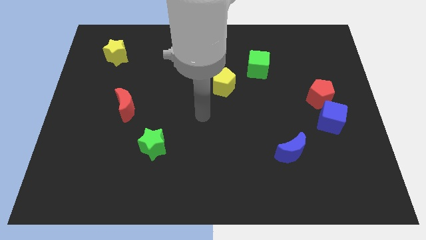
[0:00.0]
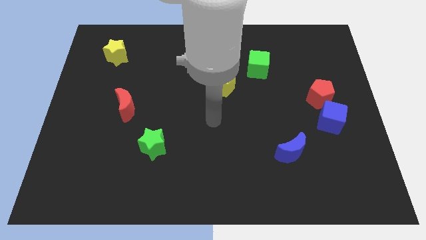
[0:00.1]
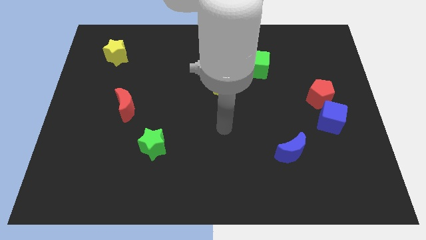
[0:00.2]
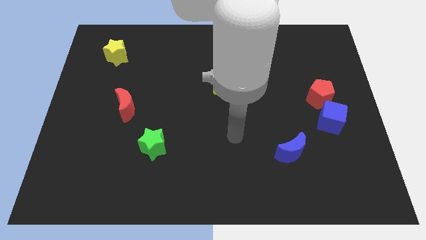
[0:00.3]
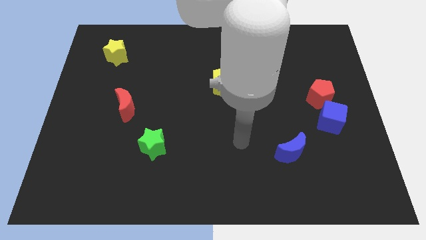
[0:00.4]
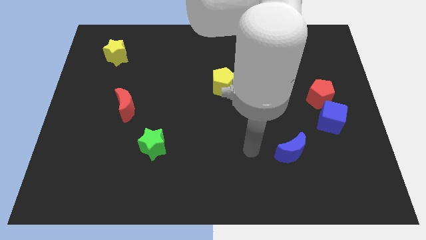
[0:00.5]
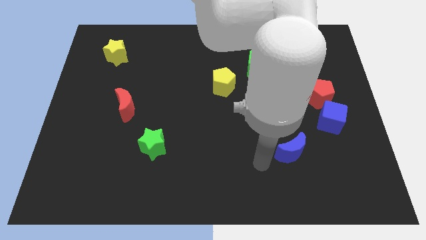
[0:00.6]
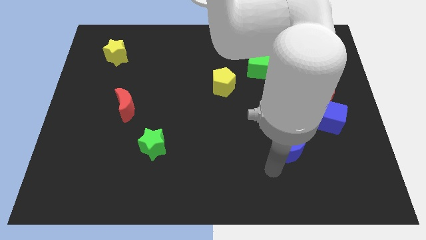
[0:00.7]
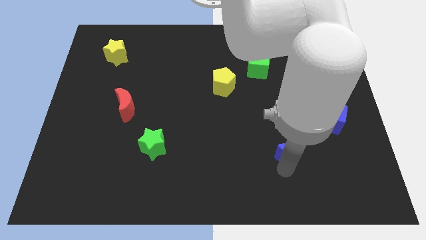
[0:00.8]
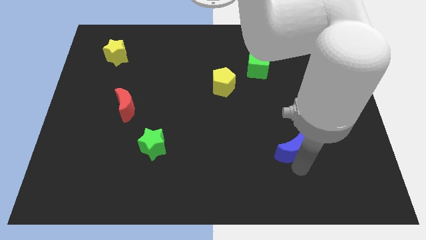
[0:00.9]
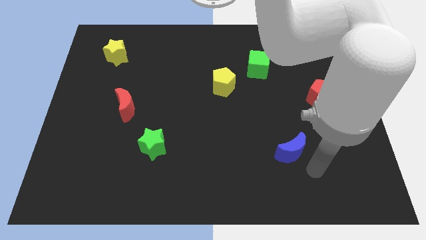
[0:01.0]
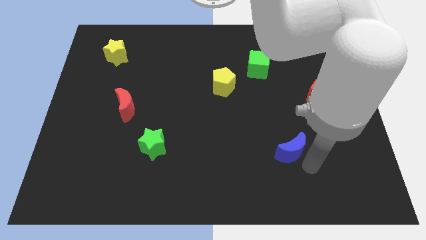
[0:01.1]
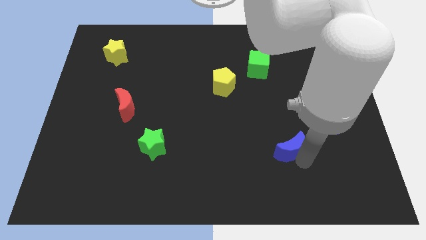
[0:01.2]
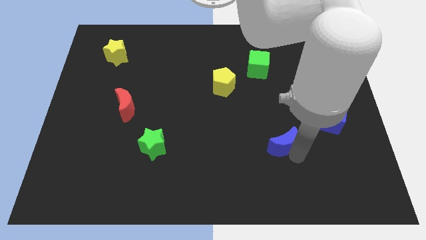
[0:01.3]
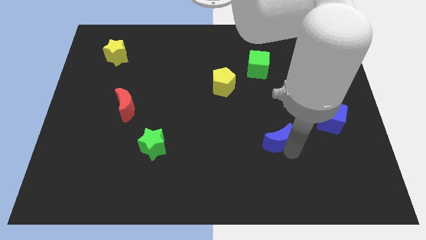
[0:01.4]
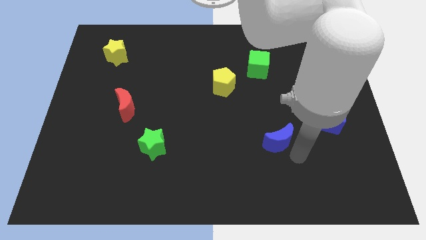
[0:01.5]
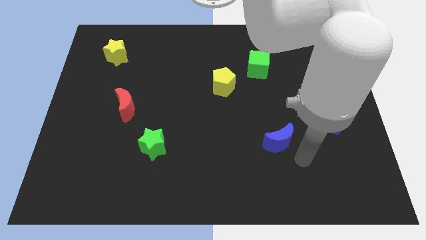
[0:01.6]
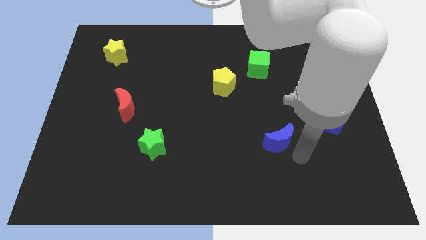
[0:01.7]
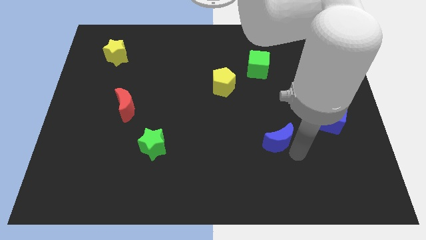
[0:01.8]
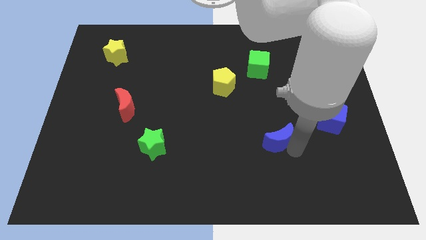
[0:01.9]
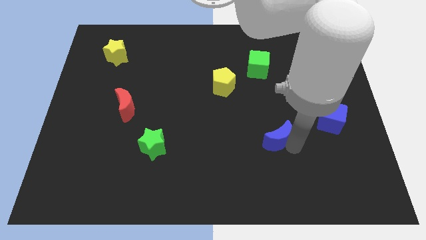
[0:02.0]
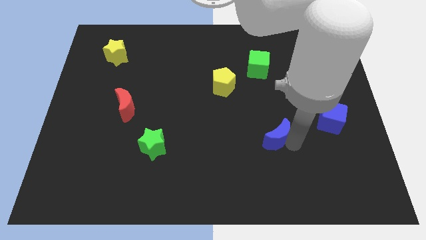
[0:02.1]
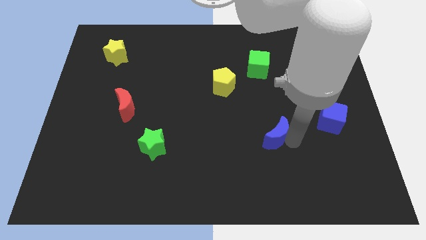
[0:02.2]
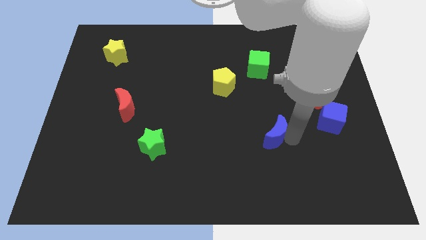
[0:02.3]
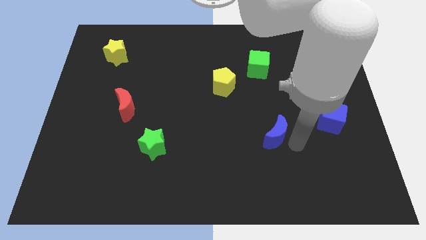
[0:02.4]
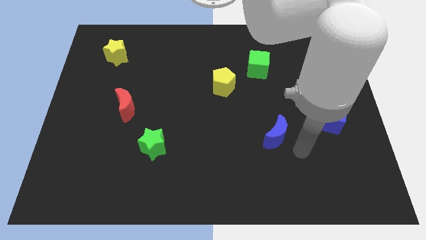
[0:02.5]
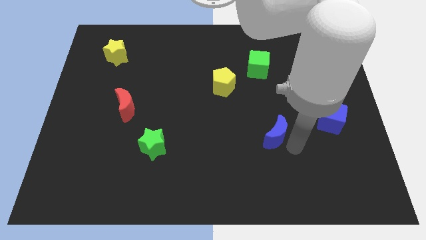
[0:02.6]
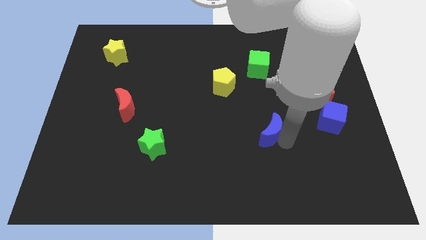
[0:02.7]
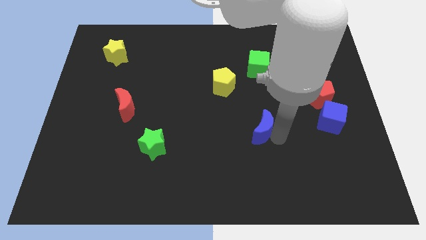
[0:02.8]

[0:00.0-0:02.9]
push the blue moon somewhat up and left diagonally

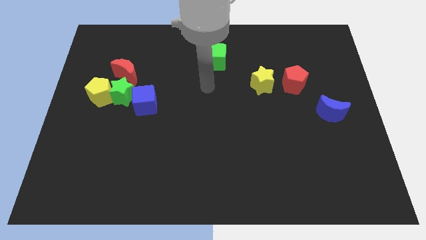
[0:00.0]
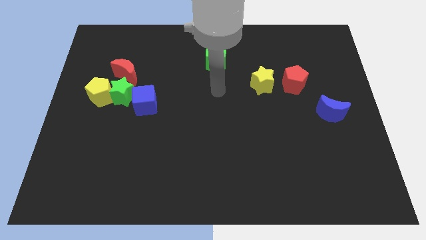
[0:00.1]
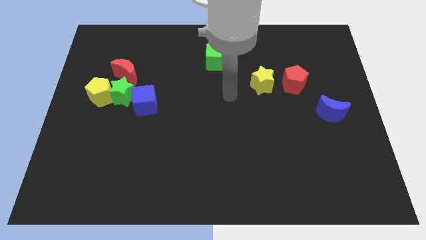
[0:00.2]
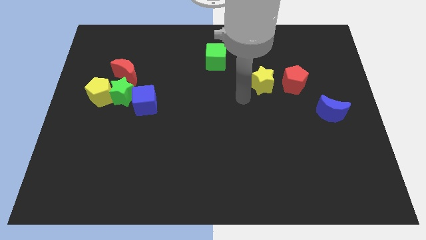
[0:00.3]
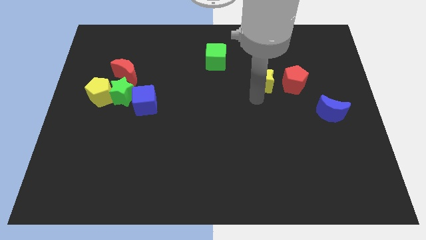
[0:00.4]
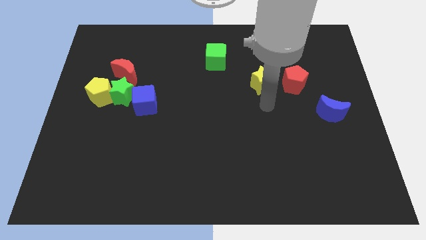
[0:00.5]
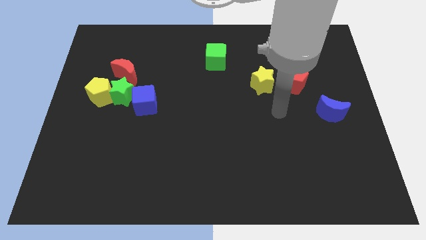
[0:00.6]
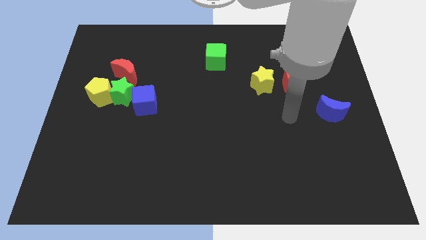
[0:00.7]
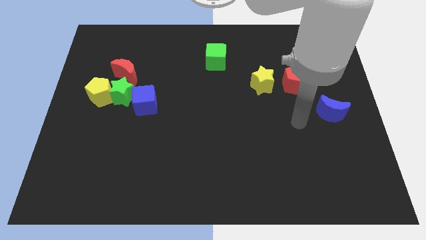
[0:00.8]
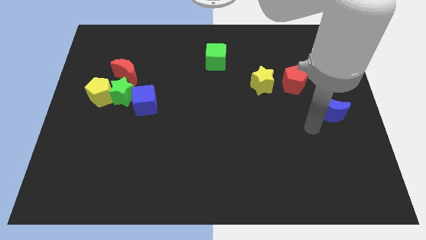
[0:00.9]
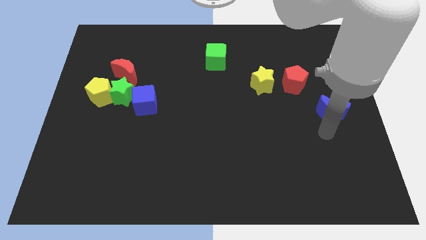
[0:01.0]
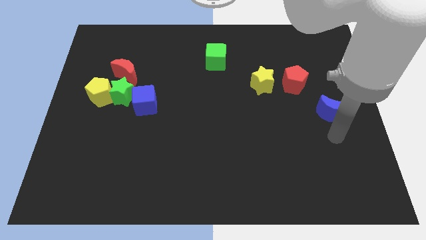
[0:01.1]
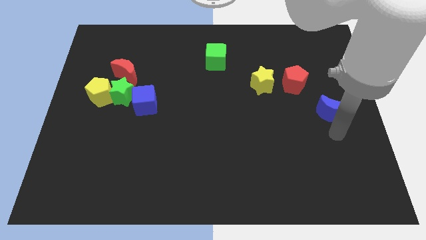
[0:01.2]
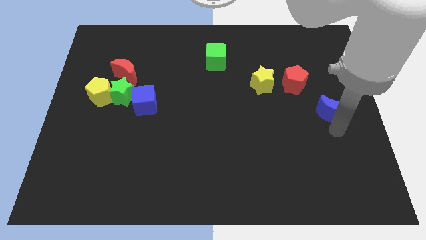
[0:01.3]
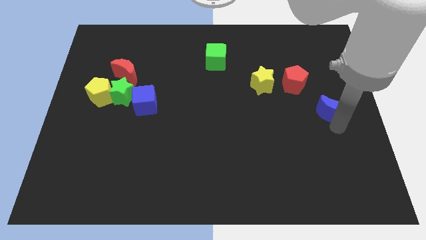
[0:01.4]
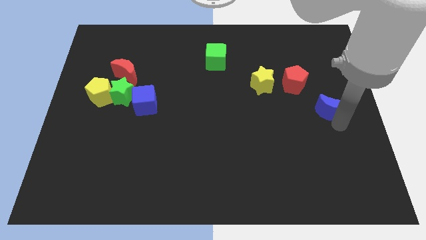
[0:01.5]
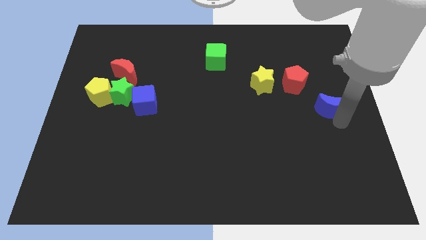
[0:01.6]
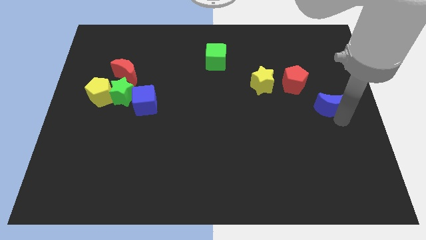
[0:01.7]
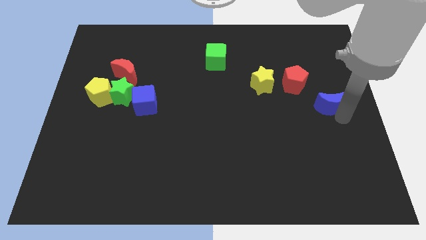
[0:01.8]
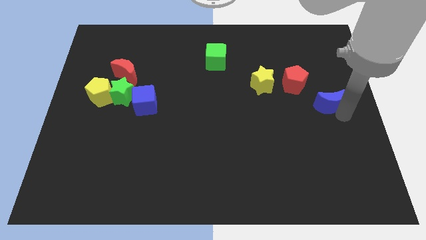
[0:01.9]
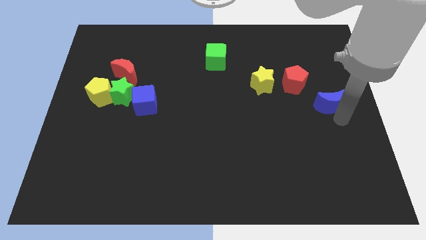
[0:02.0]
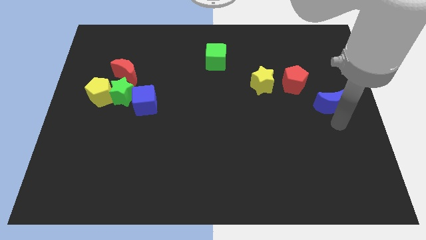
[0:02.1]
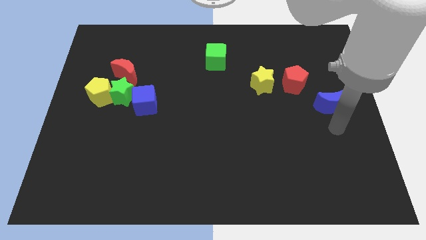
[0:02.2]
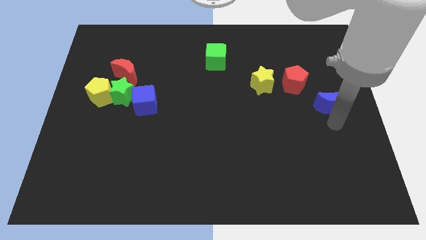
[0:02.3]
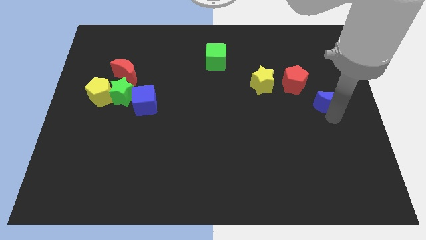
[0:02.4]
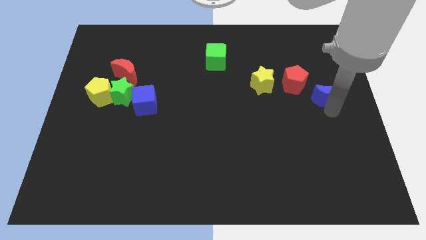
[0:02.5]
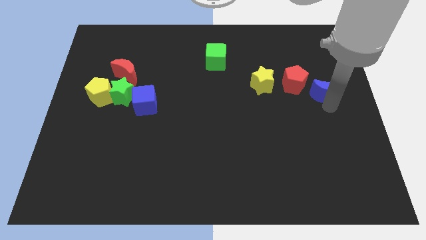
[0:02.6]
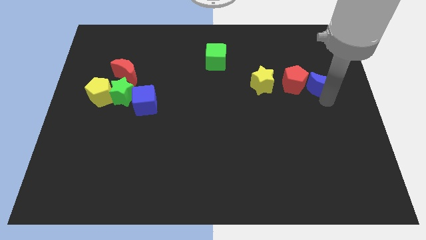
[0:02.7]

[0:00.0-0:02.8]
push the blue moon up slightly

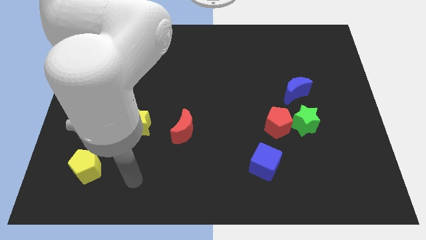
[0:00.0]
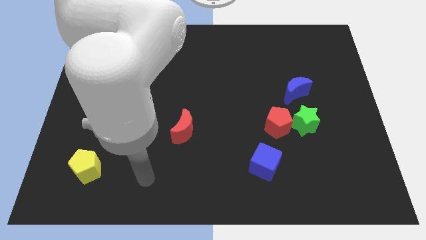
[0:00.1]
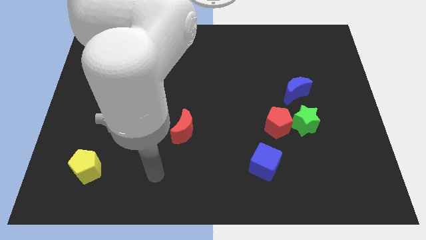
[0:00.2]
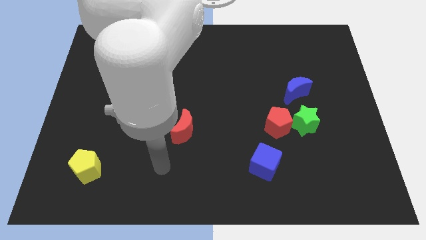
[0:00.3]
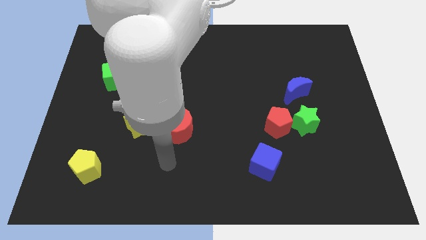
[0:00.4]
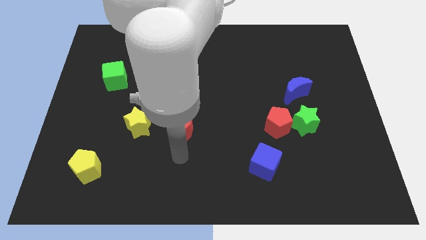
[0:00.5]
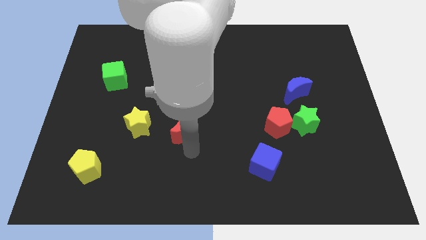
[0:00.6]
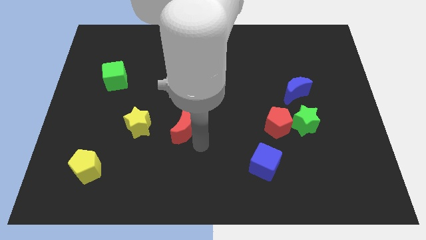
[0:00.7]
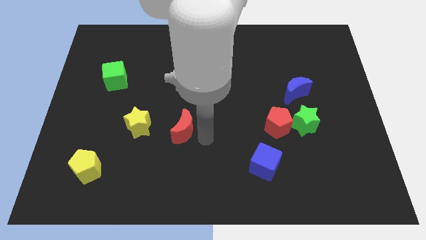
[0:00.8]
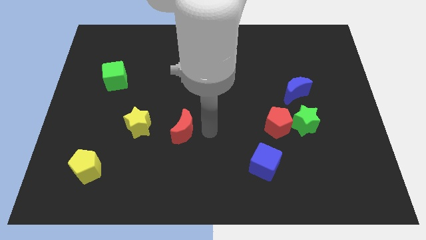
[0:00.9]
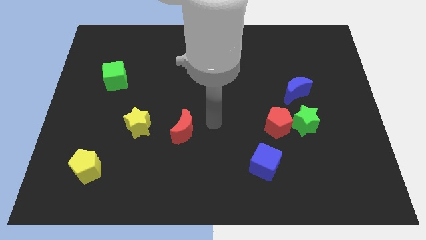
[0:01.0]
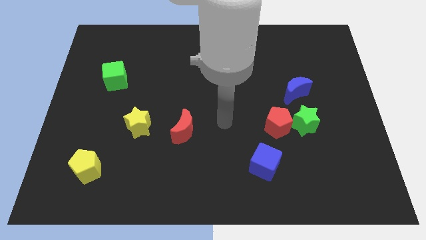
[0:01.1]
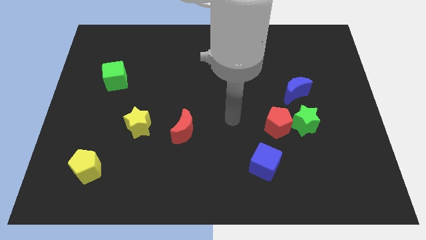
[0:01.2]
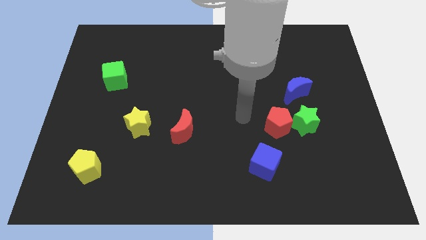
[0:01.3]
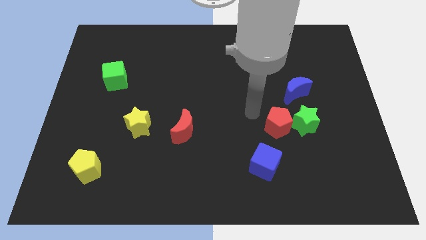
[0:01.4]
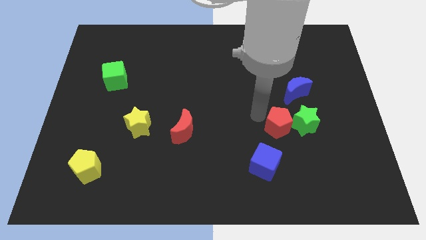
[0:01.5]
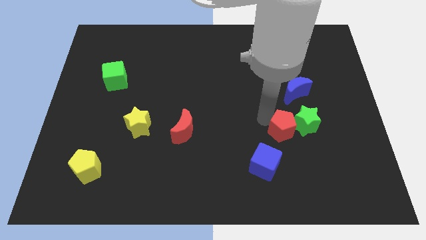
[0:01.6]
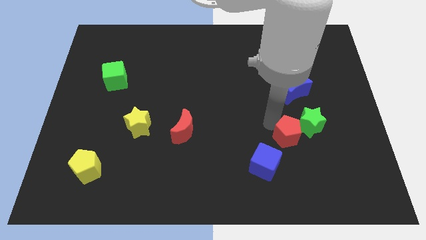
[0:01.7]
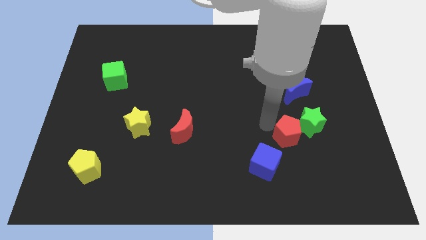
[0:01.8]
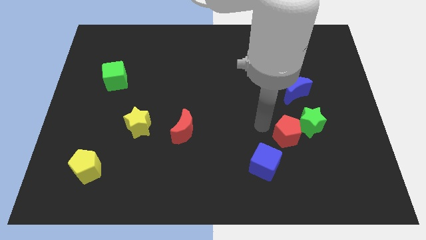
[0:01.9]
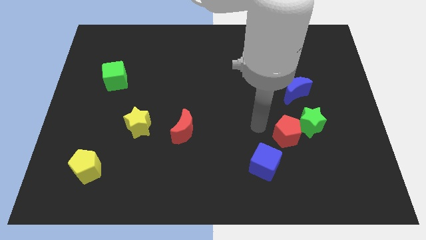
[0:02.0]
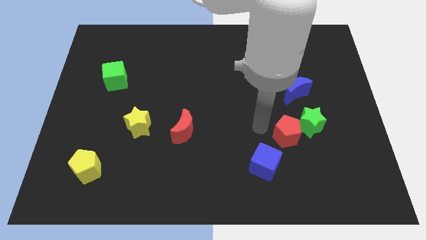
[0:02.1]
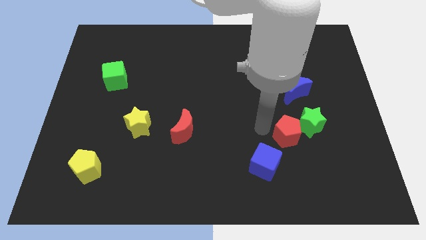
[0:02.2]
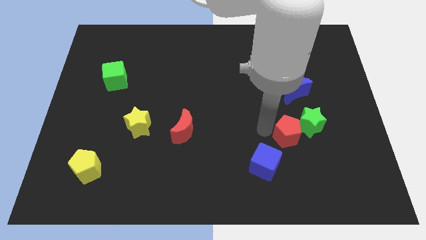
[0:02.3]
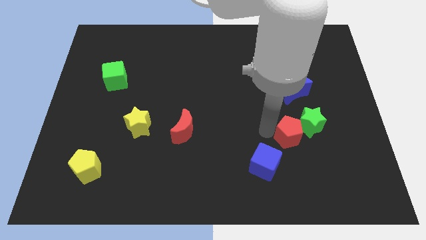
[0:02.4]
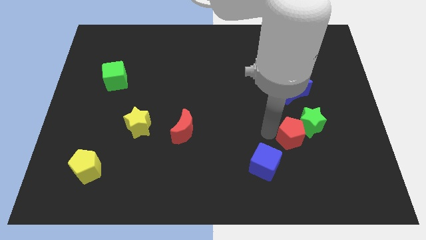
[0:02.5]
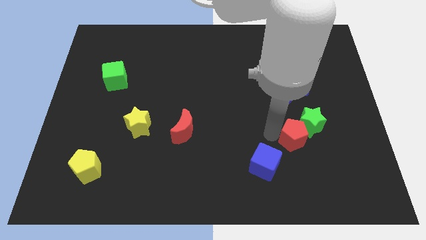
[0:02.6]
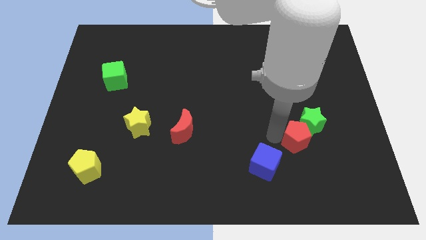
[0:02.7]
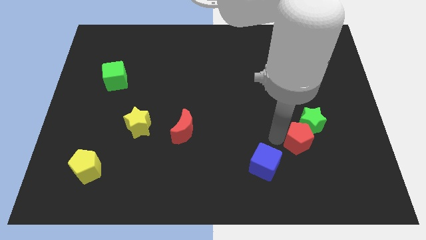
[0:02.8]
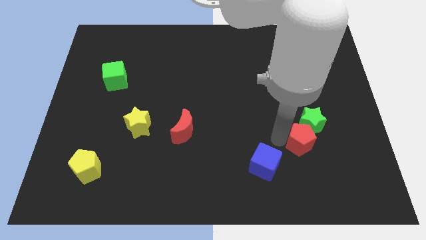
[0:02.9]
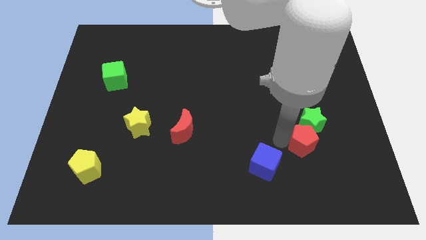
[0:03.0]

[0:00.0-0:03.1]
slide the red pentagon downwards and right diagonally a bit
